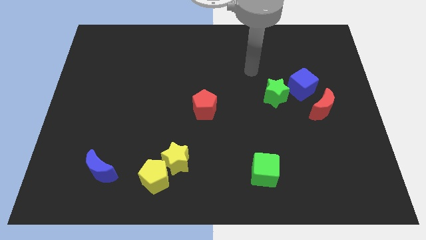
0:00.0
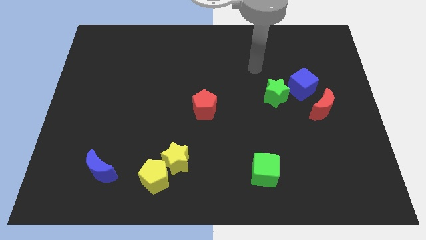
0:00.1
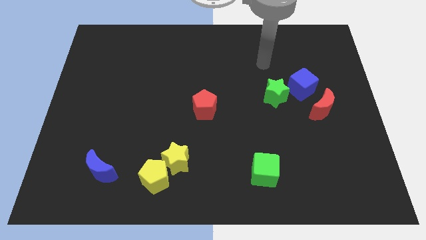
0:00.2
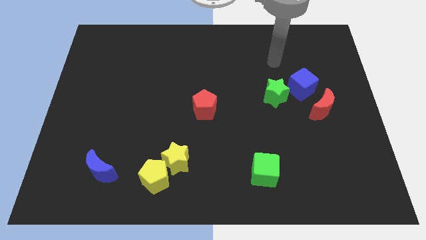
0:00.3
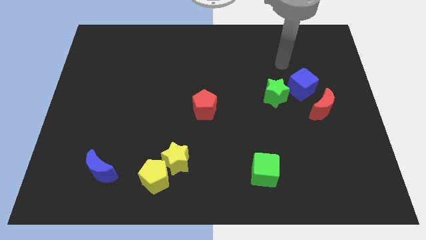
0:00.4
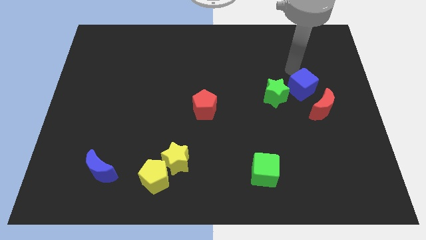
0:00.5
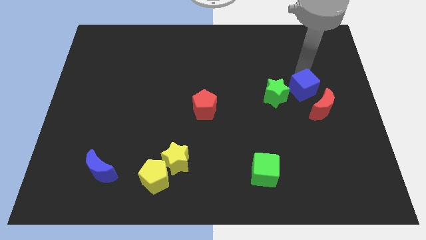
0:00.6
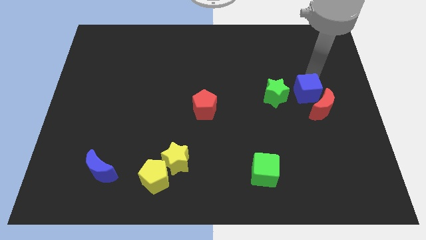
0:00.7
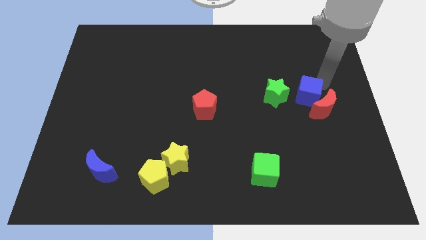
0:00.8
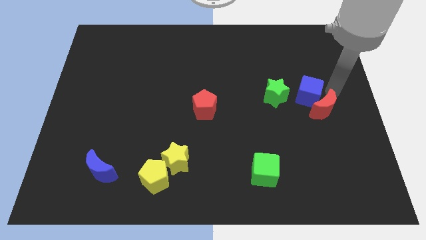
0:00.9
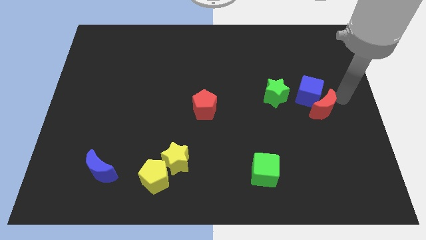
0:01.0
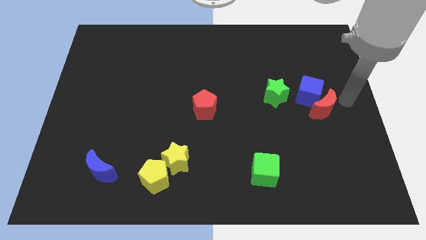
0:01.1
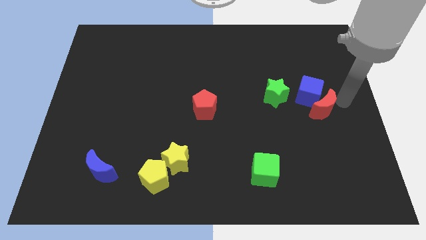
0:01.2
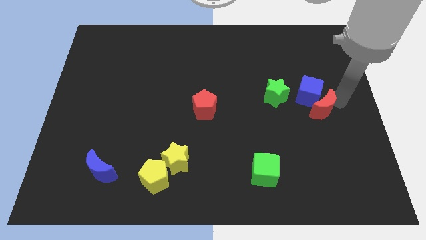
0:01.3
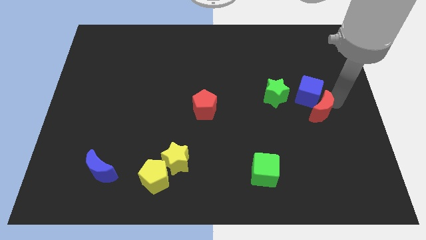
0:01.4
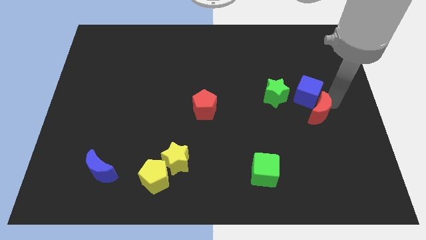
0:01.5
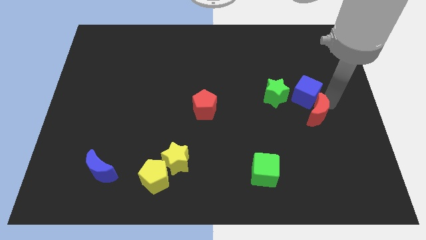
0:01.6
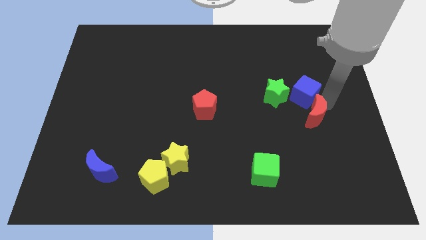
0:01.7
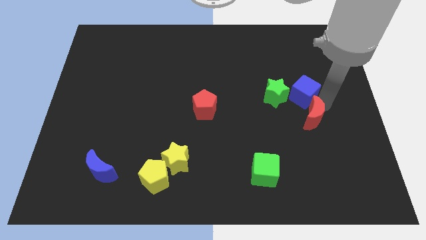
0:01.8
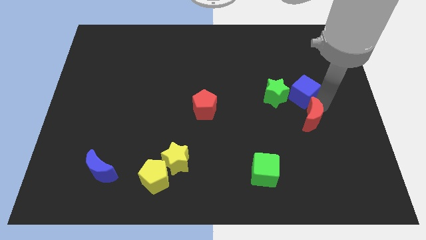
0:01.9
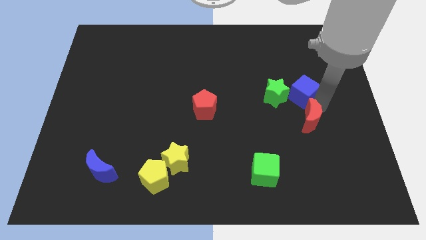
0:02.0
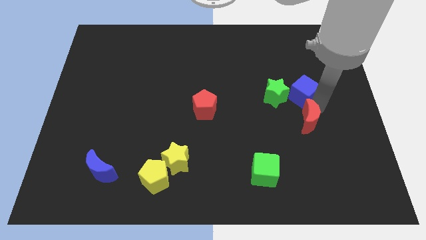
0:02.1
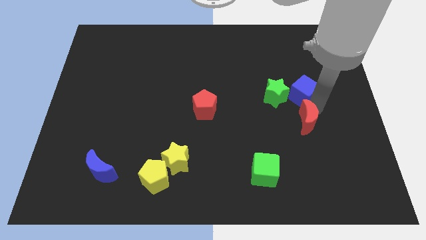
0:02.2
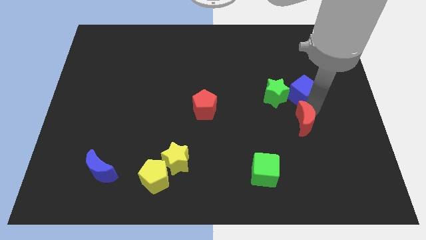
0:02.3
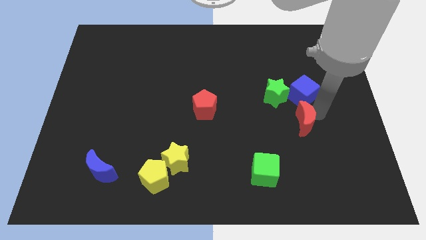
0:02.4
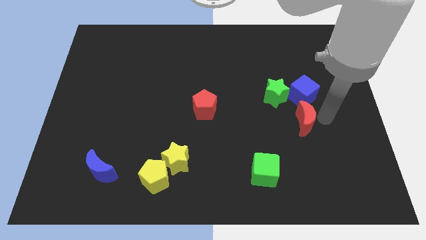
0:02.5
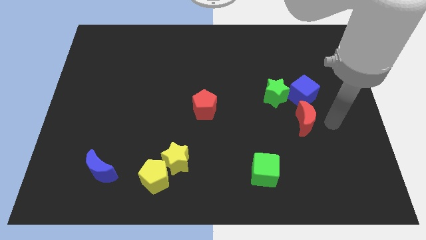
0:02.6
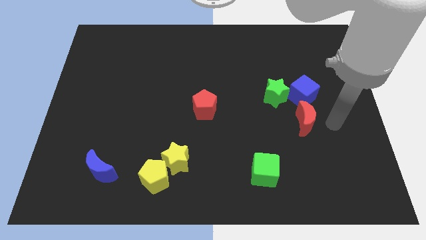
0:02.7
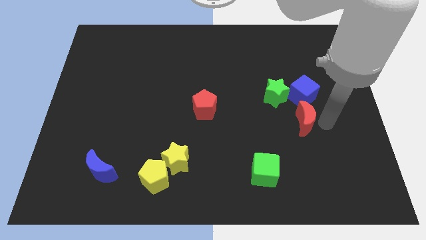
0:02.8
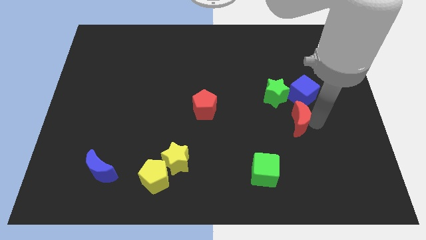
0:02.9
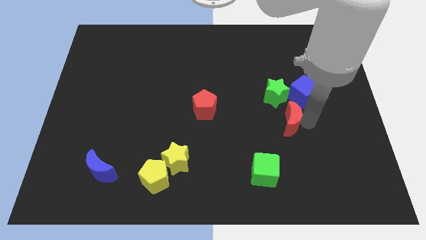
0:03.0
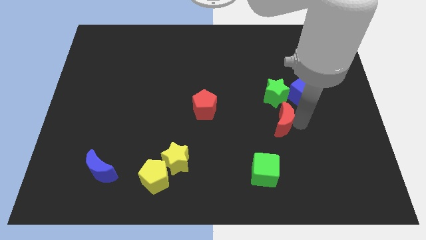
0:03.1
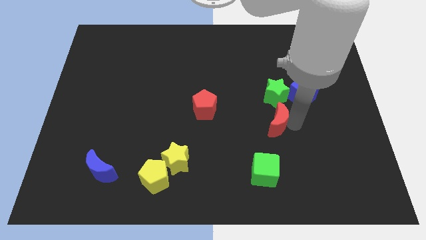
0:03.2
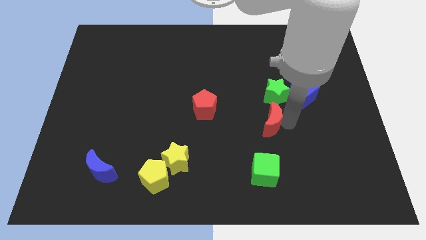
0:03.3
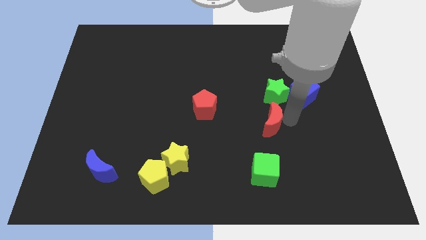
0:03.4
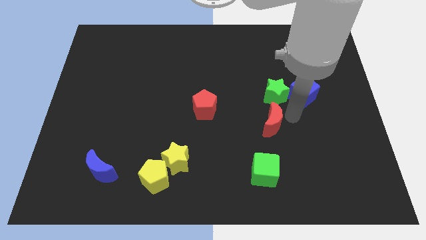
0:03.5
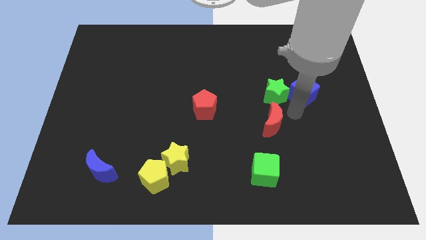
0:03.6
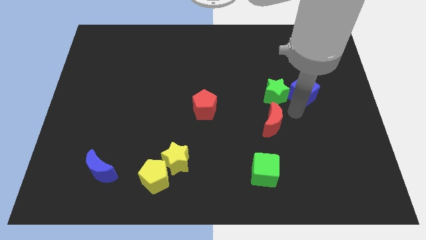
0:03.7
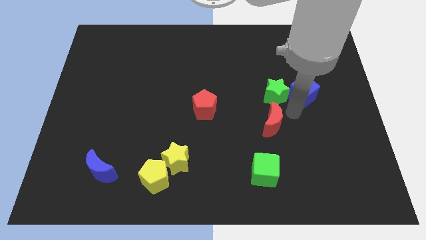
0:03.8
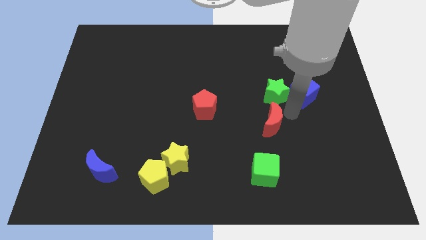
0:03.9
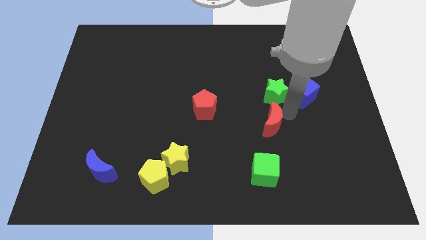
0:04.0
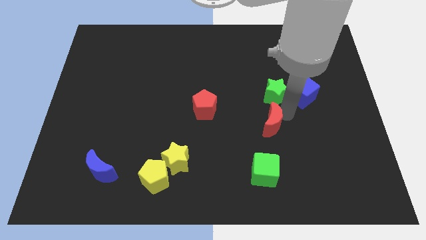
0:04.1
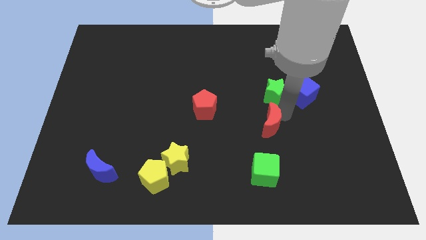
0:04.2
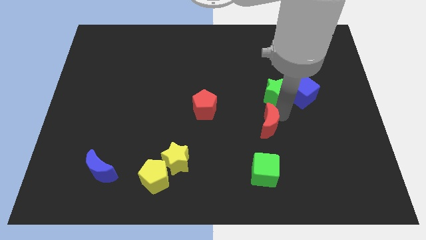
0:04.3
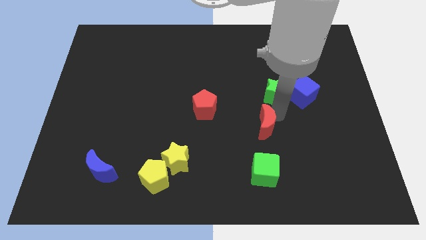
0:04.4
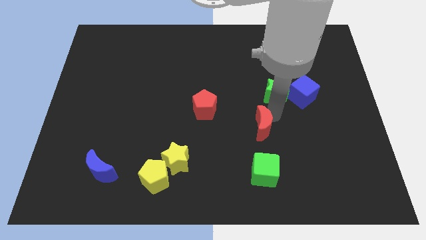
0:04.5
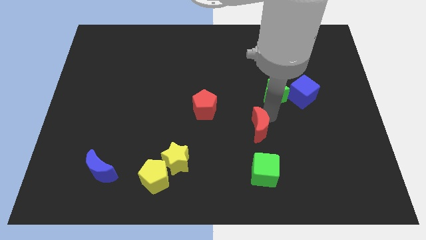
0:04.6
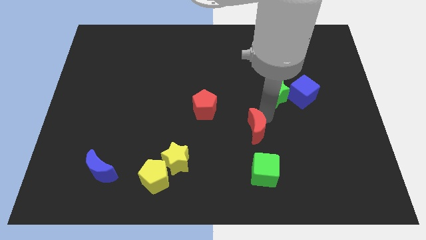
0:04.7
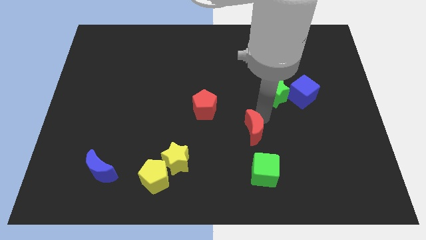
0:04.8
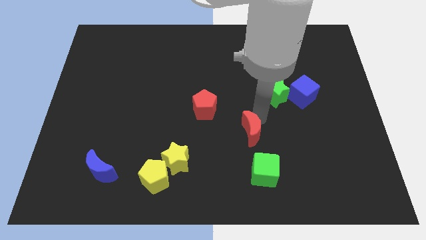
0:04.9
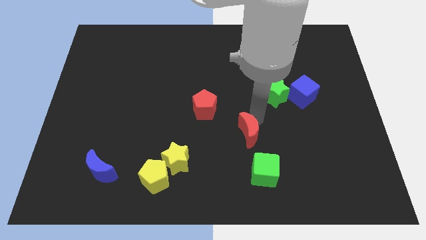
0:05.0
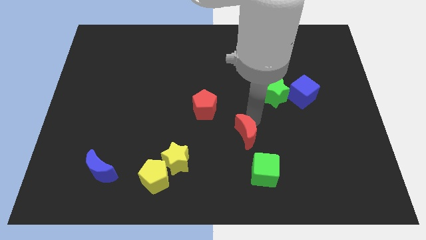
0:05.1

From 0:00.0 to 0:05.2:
push the red moon diagonally up and to the left of the green cube

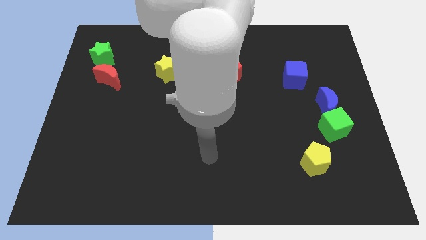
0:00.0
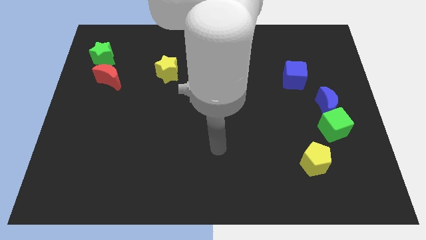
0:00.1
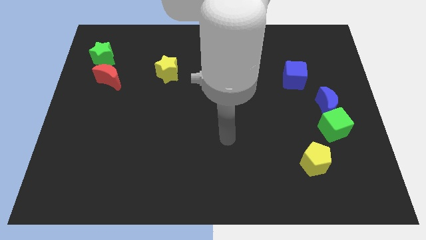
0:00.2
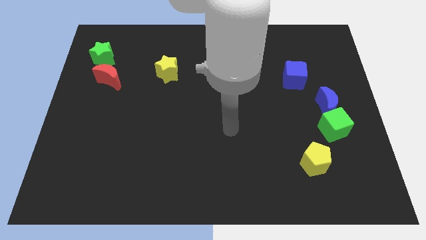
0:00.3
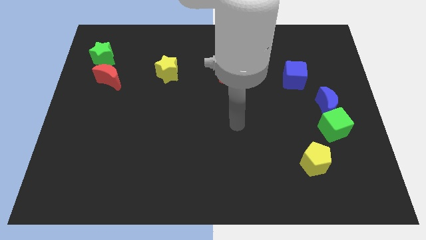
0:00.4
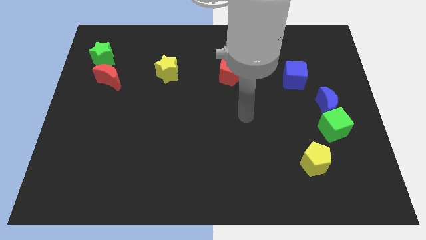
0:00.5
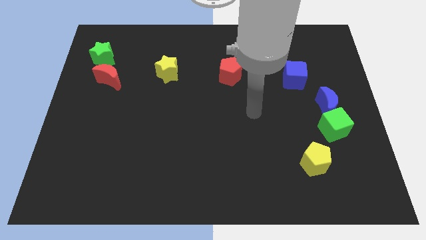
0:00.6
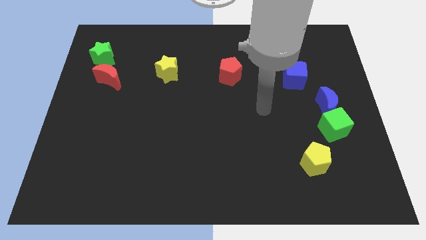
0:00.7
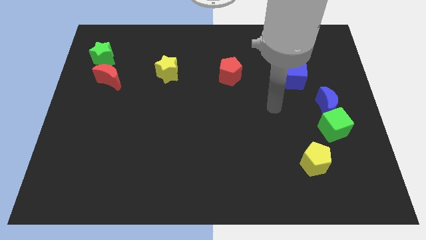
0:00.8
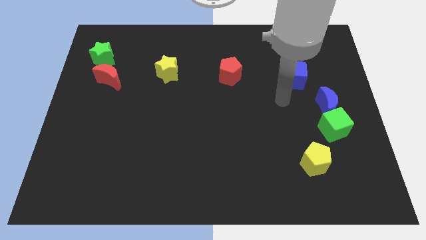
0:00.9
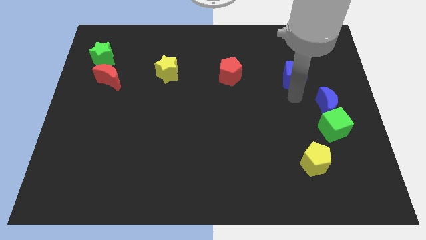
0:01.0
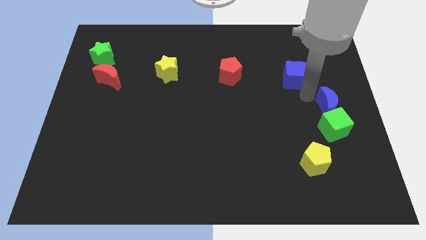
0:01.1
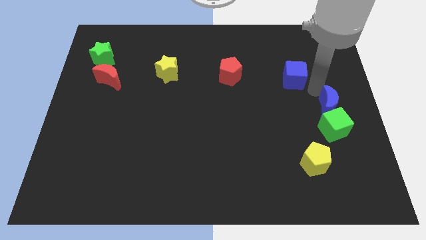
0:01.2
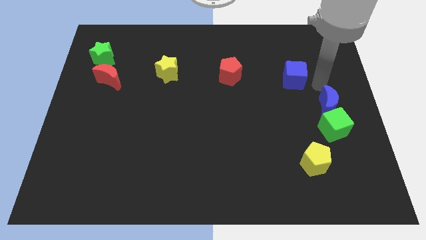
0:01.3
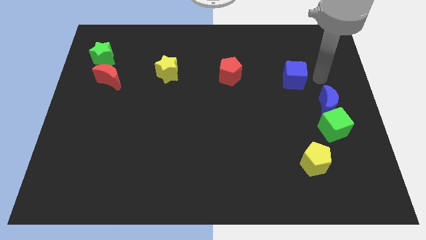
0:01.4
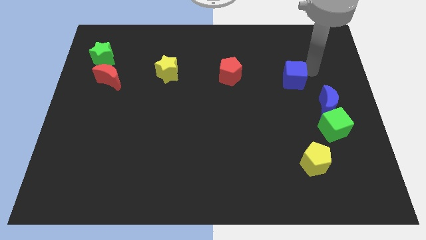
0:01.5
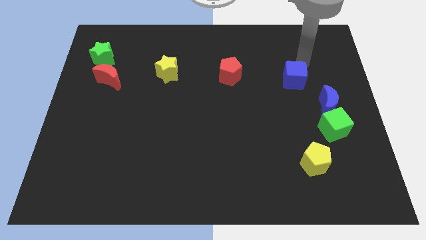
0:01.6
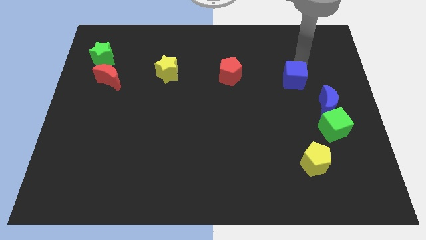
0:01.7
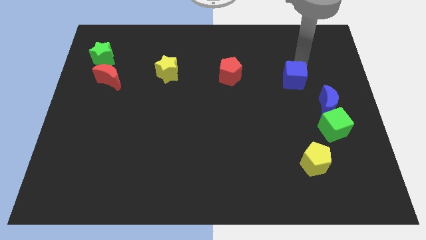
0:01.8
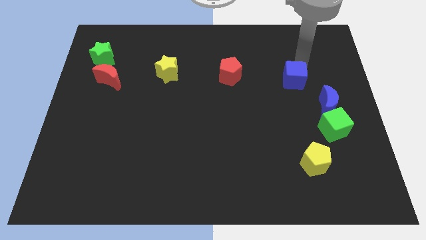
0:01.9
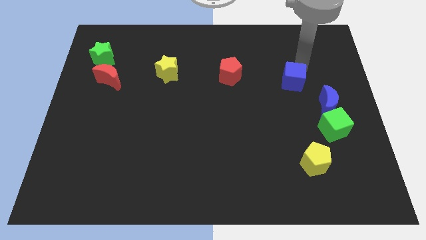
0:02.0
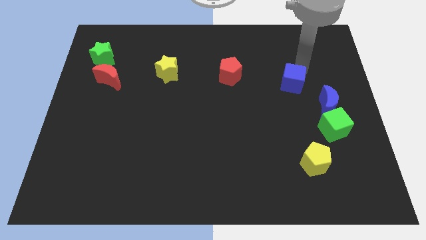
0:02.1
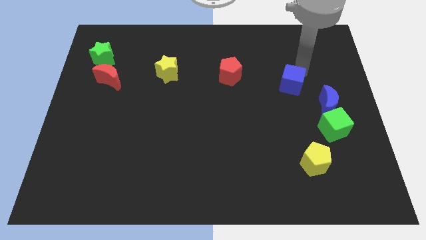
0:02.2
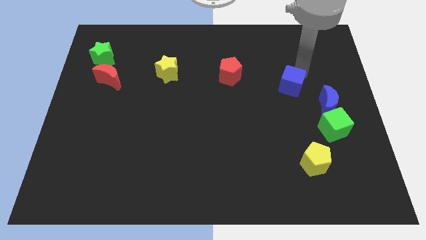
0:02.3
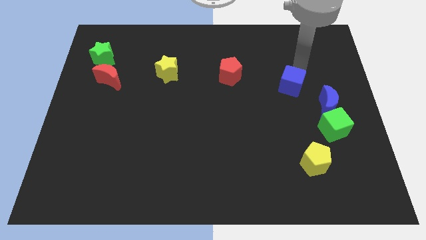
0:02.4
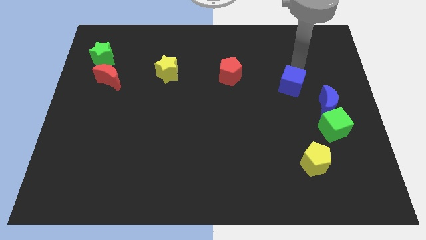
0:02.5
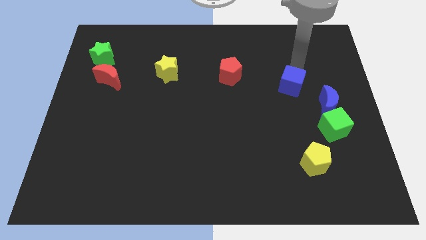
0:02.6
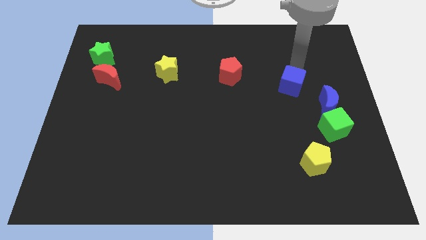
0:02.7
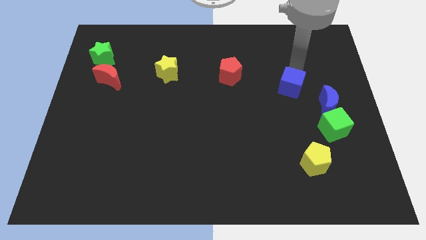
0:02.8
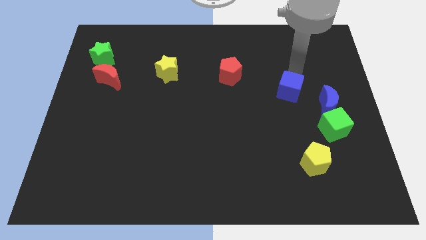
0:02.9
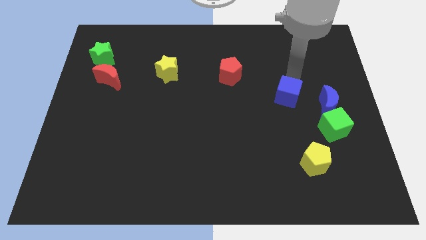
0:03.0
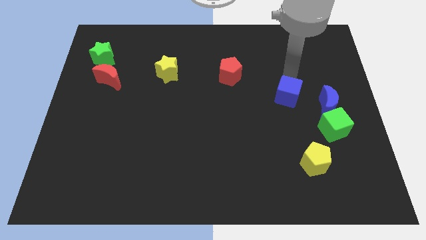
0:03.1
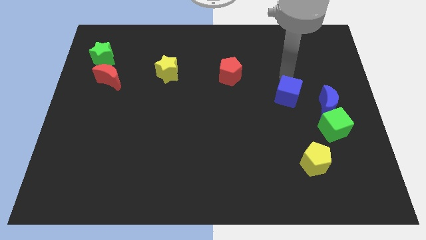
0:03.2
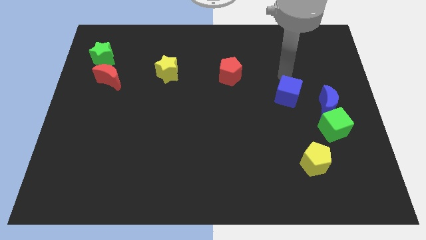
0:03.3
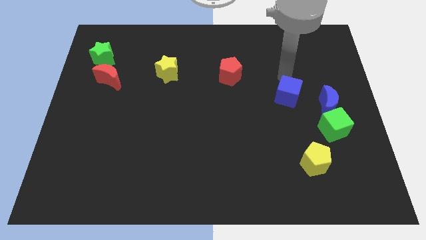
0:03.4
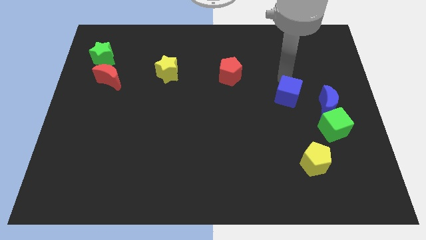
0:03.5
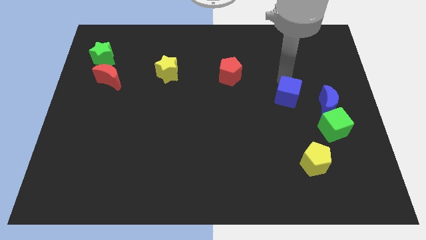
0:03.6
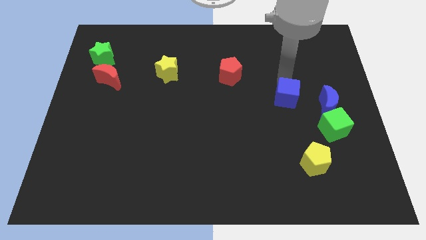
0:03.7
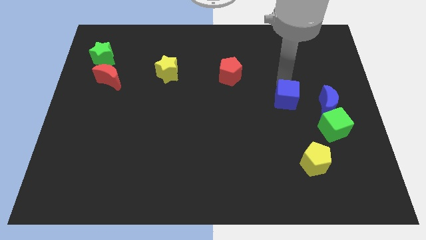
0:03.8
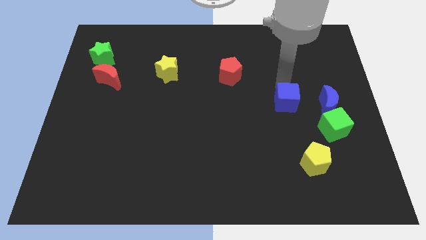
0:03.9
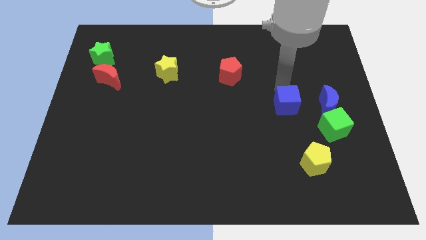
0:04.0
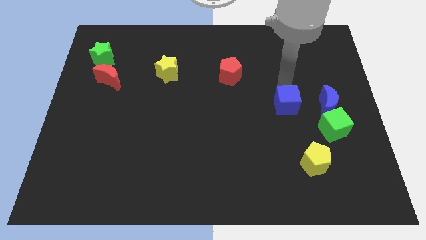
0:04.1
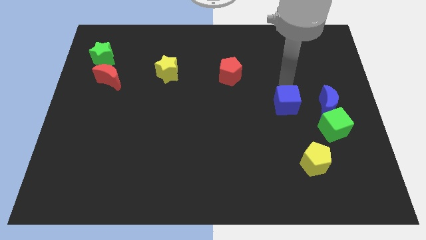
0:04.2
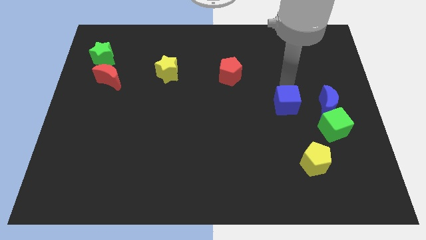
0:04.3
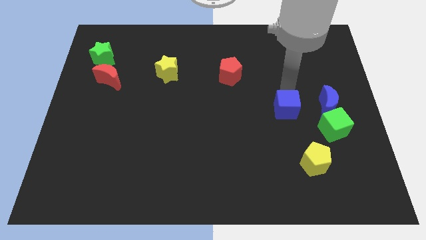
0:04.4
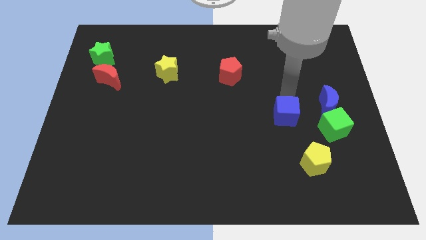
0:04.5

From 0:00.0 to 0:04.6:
push the blue cube just left of the green cube
